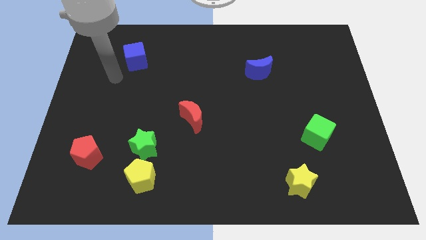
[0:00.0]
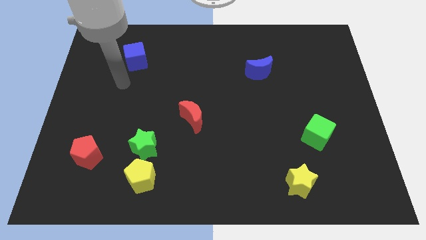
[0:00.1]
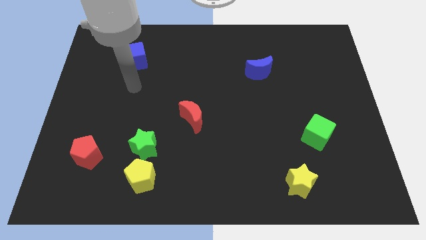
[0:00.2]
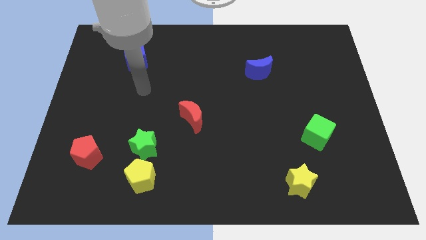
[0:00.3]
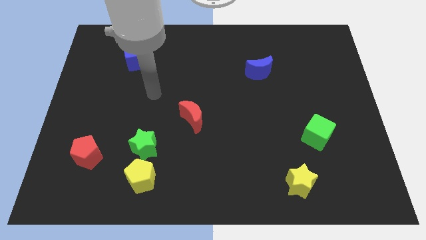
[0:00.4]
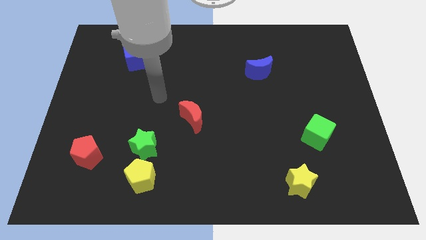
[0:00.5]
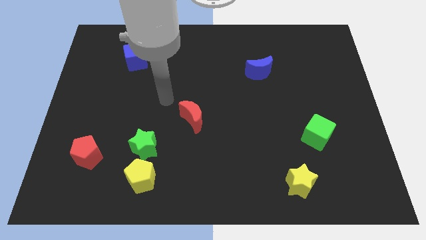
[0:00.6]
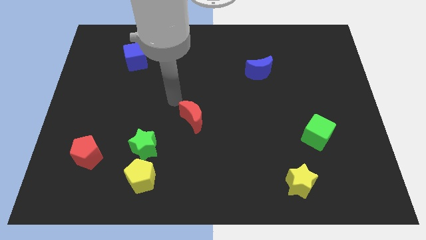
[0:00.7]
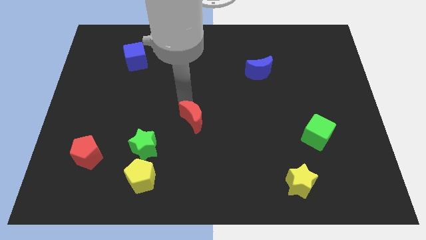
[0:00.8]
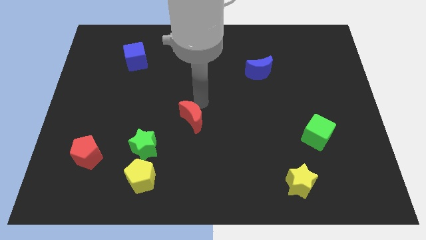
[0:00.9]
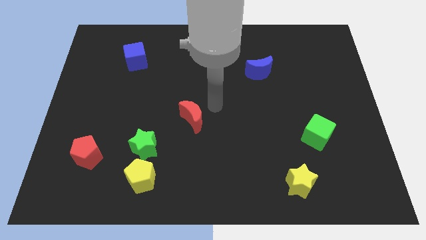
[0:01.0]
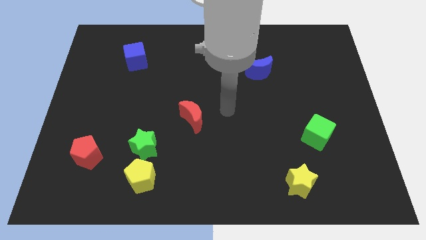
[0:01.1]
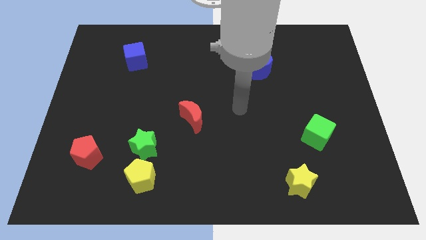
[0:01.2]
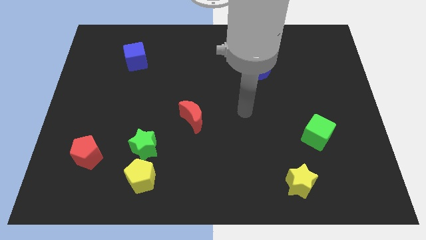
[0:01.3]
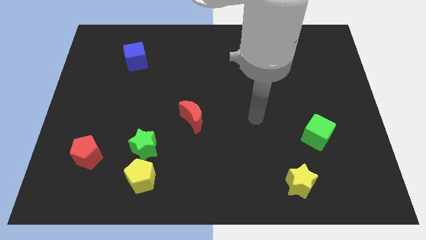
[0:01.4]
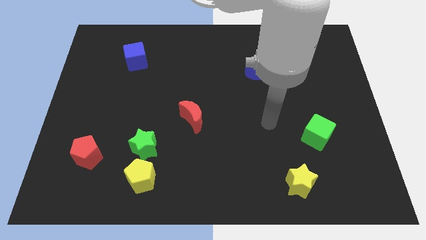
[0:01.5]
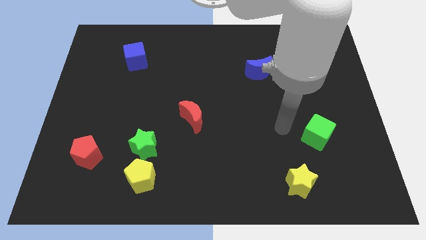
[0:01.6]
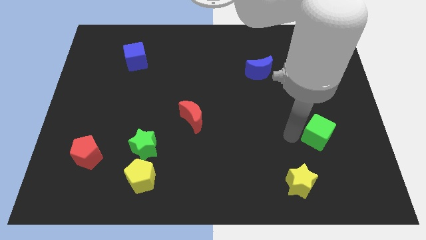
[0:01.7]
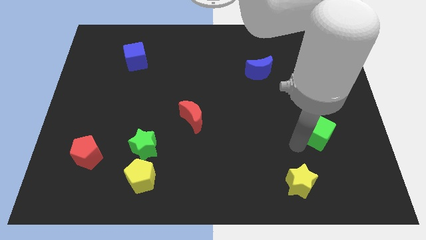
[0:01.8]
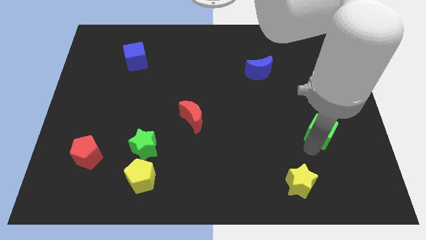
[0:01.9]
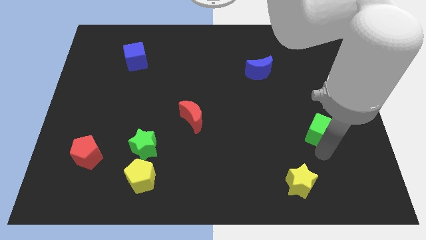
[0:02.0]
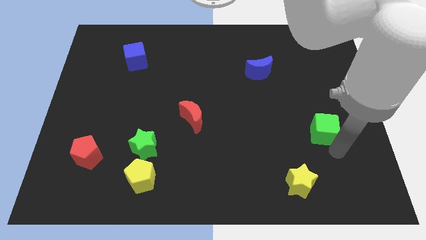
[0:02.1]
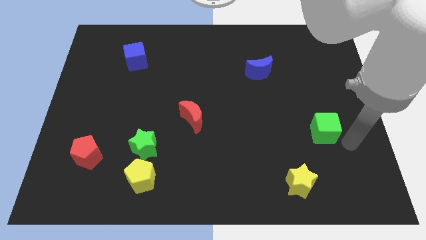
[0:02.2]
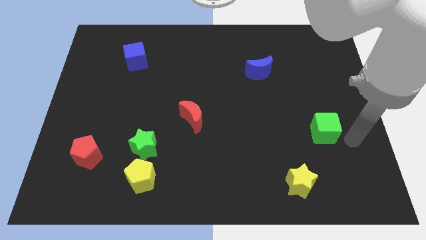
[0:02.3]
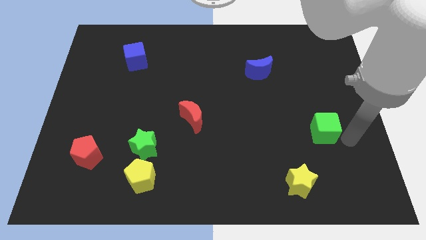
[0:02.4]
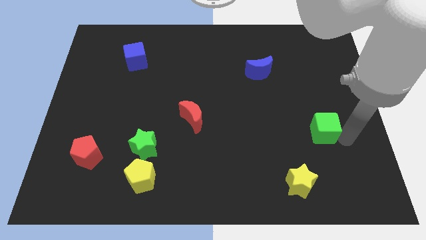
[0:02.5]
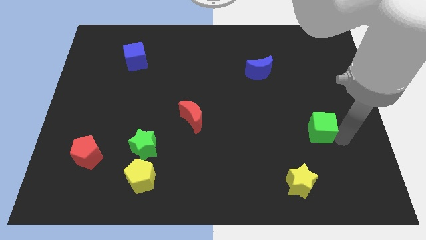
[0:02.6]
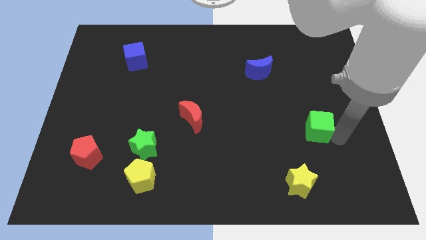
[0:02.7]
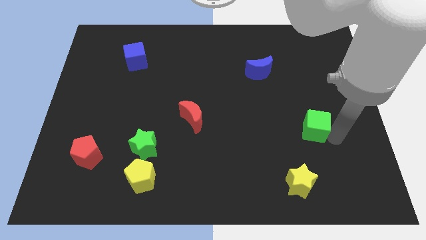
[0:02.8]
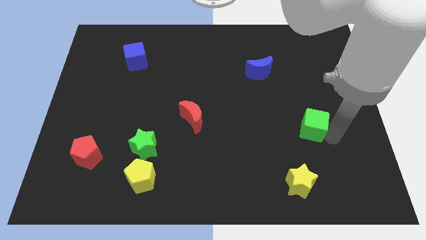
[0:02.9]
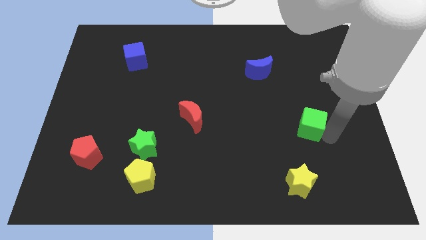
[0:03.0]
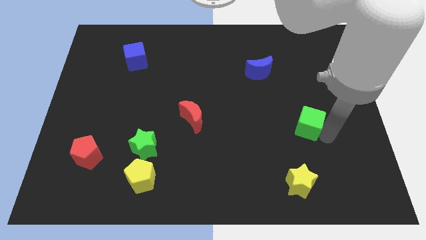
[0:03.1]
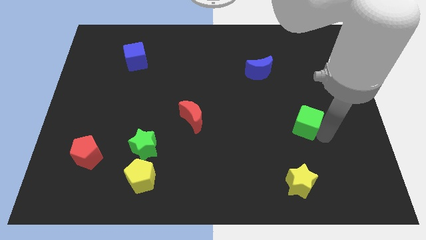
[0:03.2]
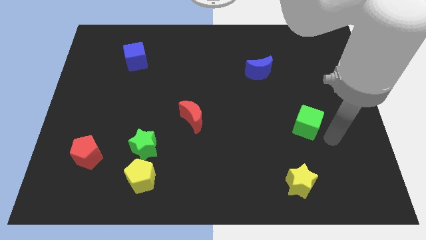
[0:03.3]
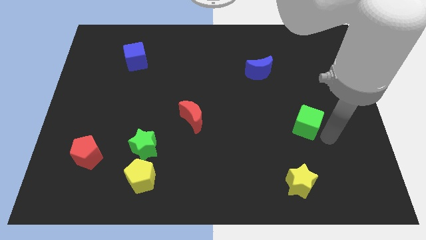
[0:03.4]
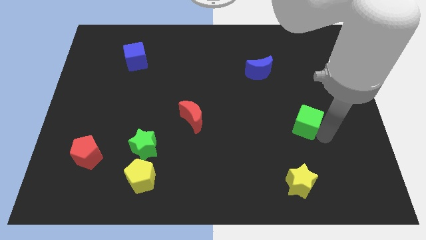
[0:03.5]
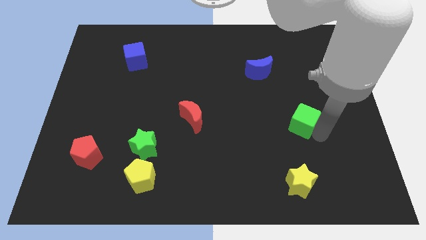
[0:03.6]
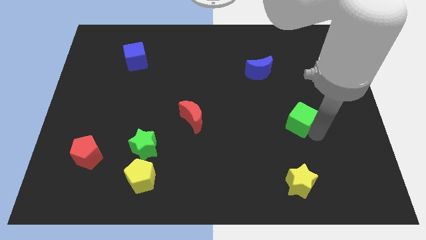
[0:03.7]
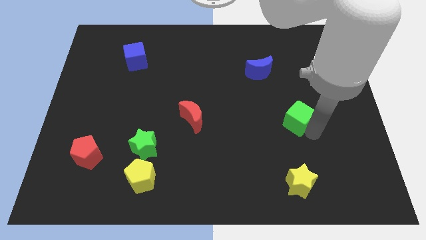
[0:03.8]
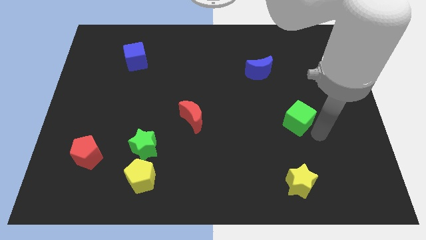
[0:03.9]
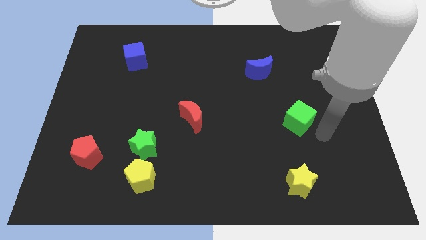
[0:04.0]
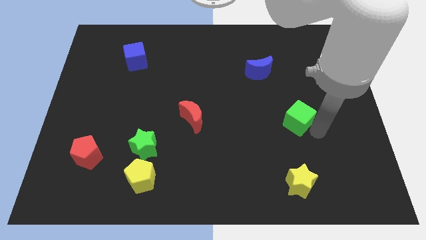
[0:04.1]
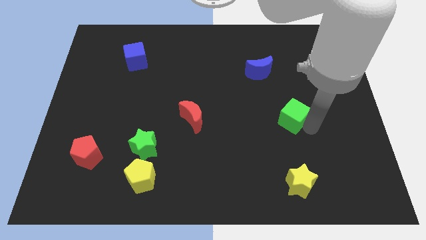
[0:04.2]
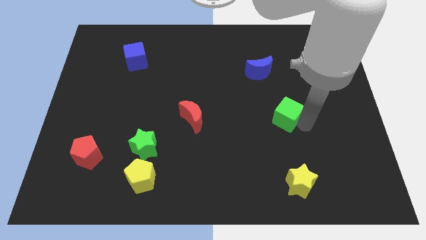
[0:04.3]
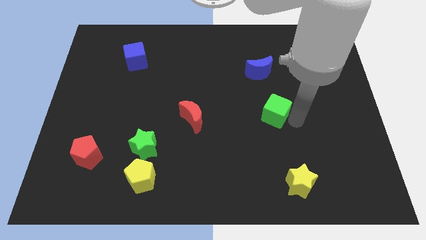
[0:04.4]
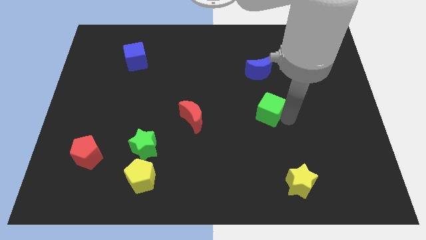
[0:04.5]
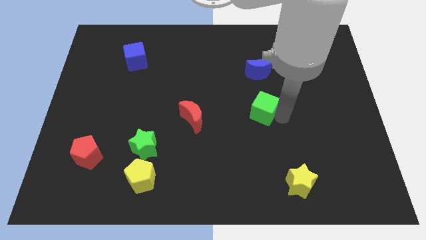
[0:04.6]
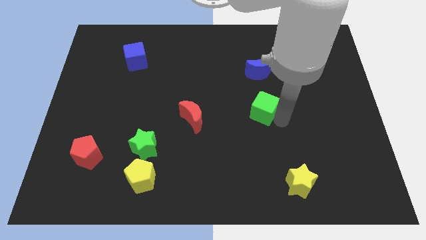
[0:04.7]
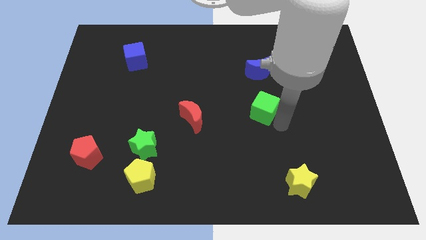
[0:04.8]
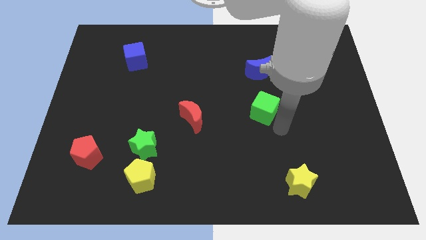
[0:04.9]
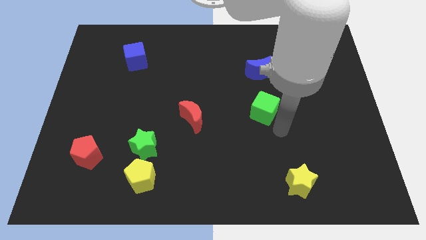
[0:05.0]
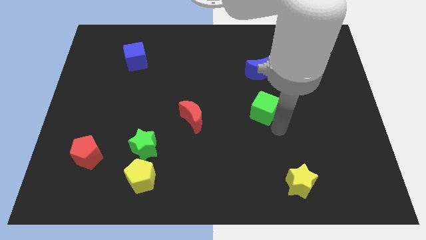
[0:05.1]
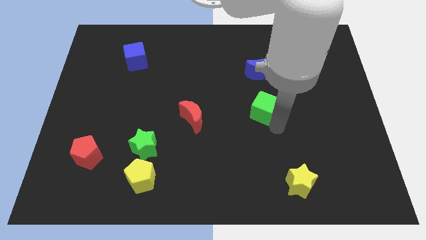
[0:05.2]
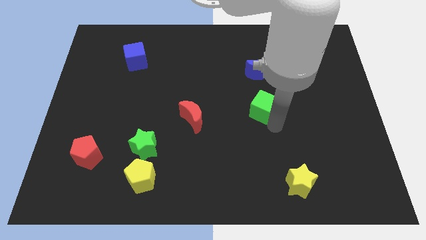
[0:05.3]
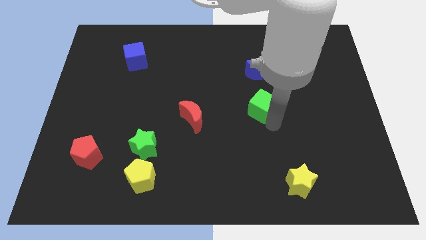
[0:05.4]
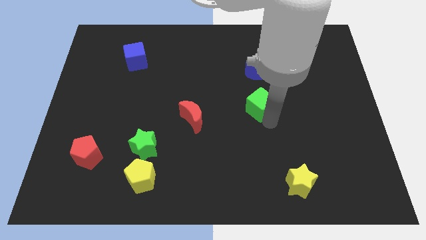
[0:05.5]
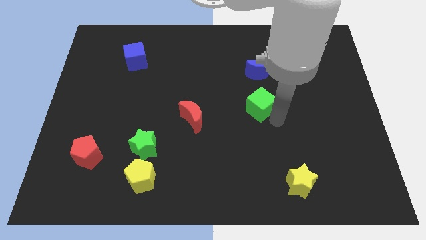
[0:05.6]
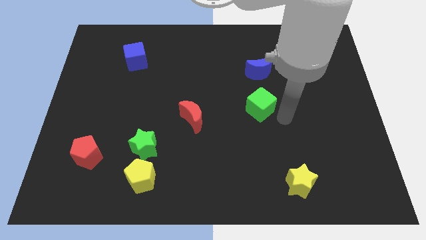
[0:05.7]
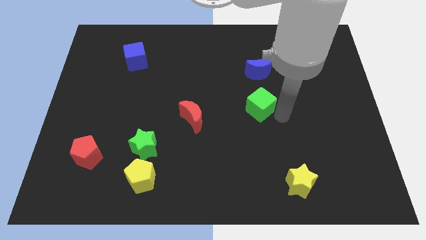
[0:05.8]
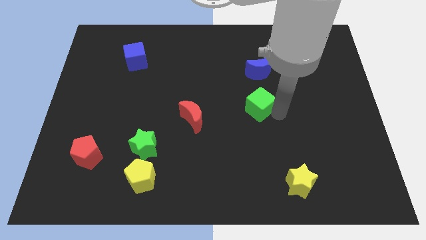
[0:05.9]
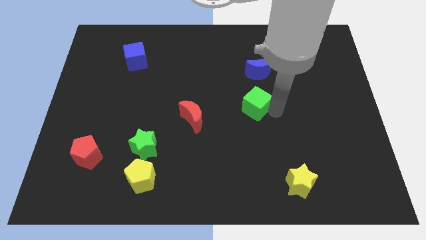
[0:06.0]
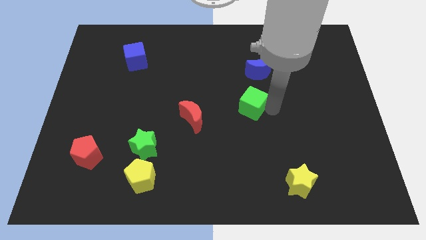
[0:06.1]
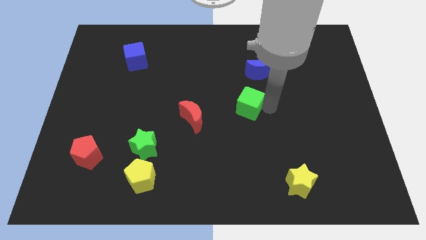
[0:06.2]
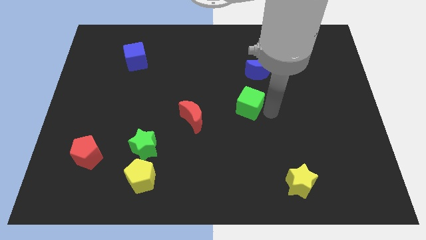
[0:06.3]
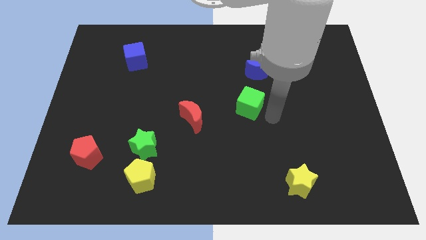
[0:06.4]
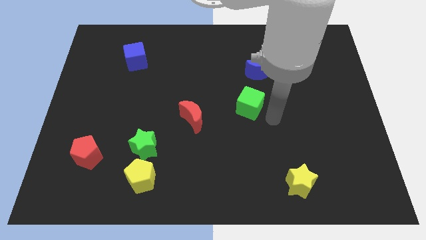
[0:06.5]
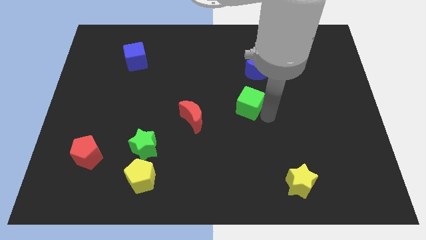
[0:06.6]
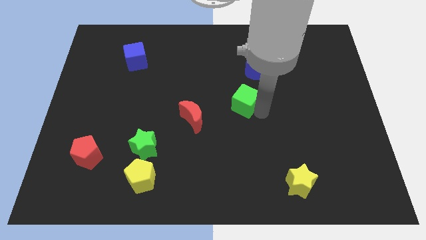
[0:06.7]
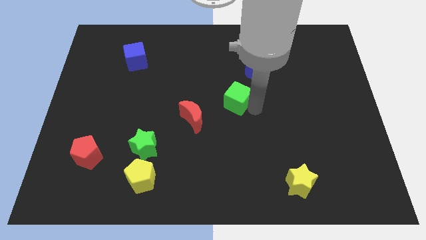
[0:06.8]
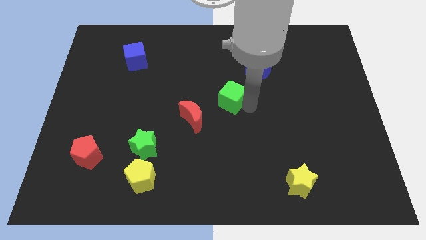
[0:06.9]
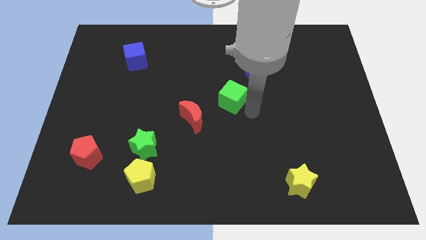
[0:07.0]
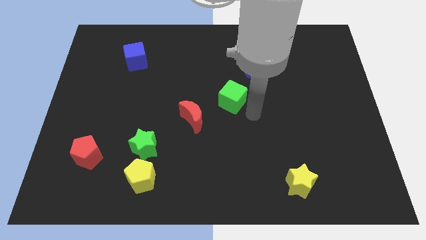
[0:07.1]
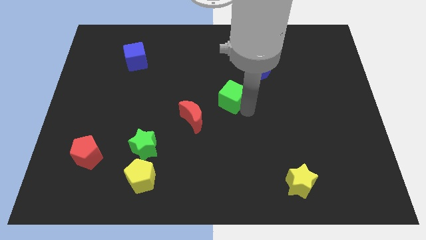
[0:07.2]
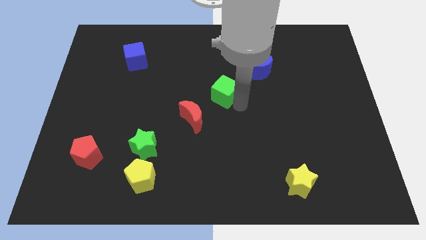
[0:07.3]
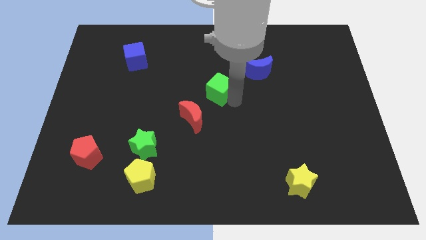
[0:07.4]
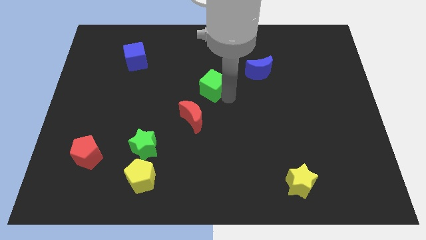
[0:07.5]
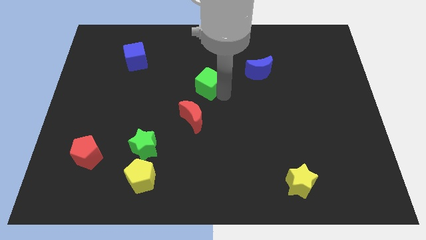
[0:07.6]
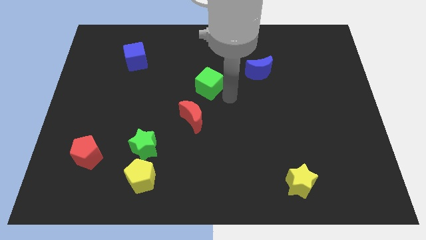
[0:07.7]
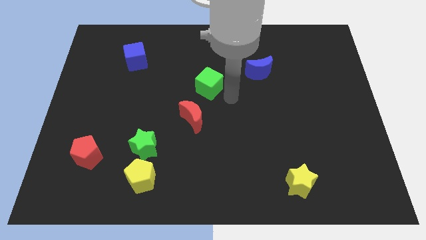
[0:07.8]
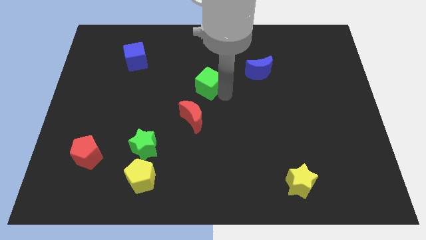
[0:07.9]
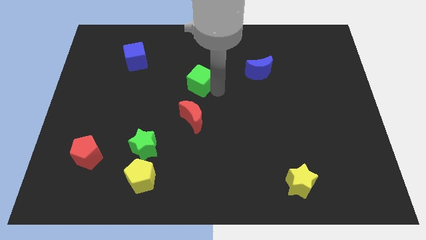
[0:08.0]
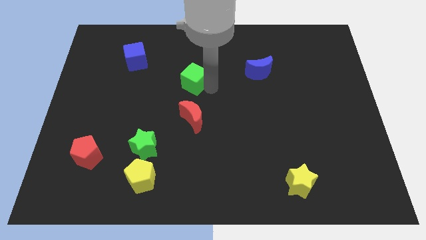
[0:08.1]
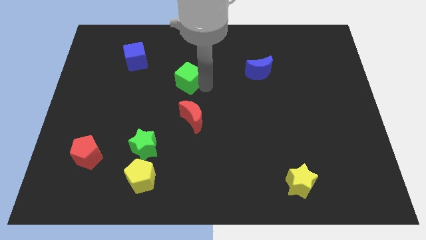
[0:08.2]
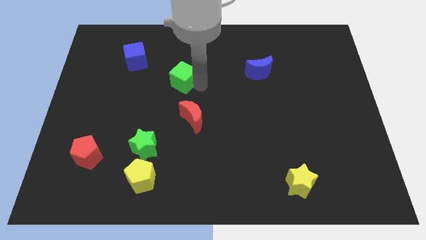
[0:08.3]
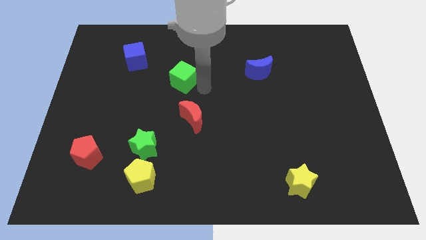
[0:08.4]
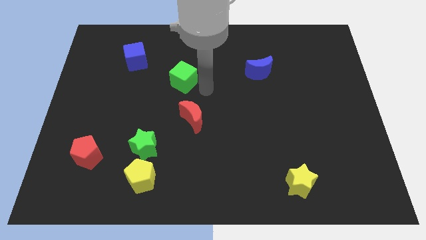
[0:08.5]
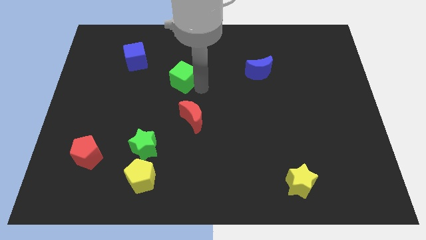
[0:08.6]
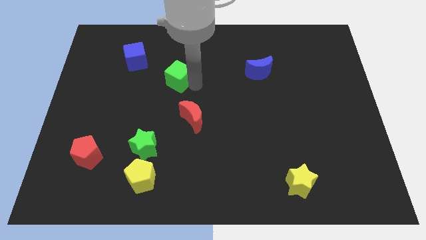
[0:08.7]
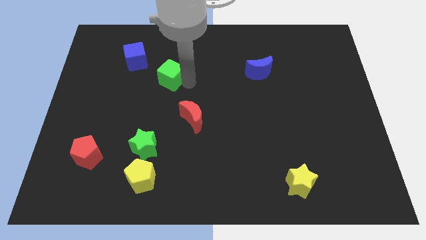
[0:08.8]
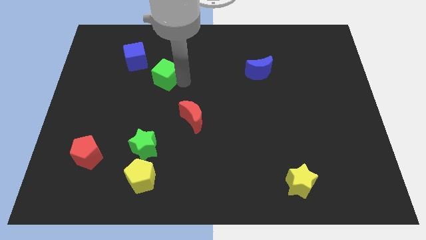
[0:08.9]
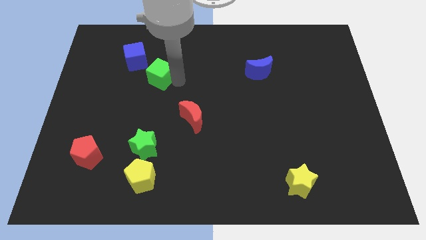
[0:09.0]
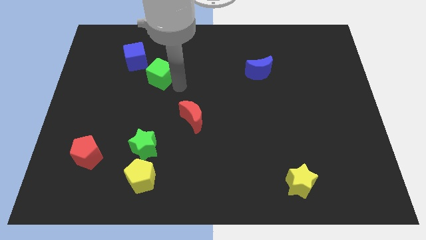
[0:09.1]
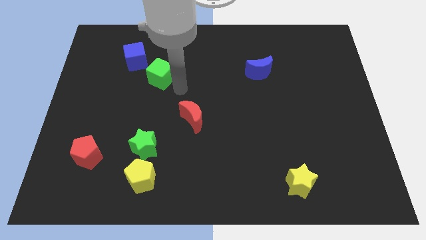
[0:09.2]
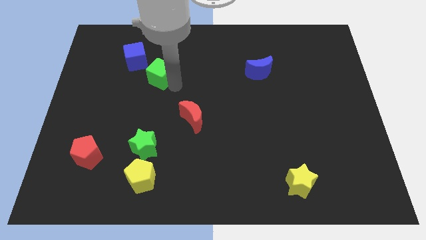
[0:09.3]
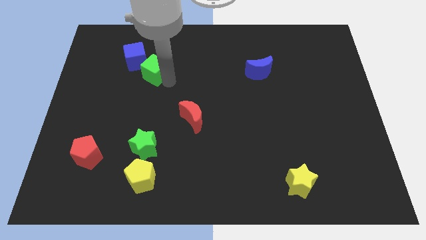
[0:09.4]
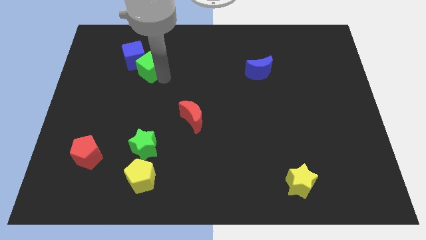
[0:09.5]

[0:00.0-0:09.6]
slide the green cube close to the blue cube
